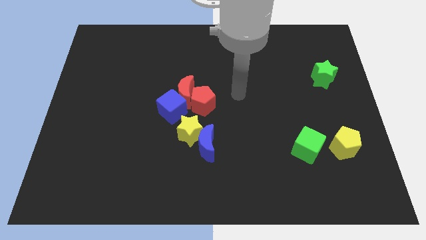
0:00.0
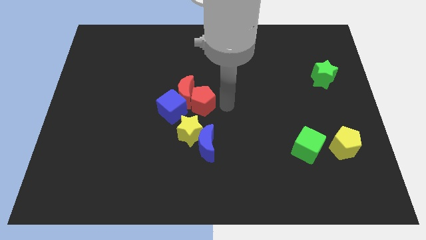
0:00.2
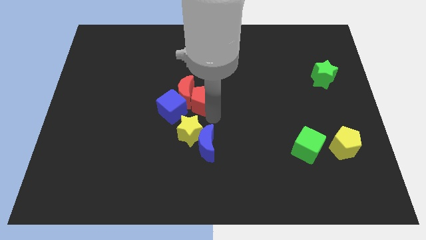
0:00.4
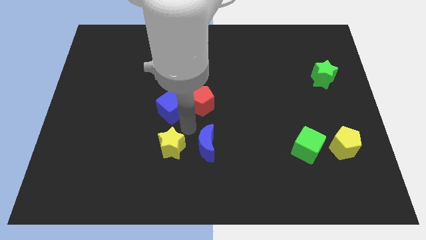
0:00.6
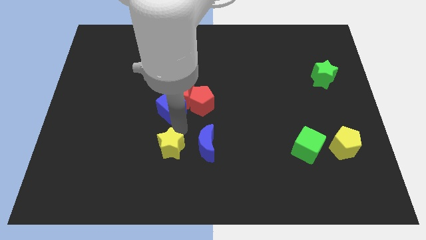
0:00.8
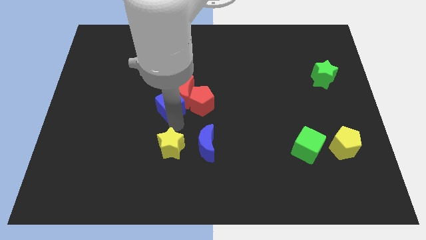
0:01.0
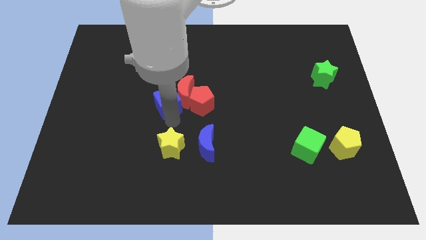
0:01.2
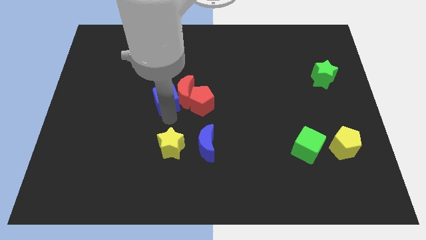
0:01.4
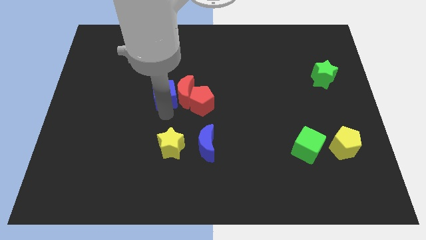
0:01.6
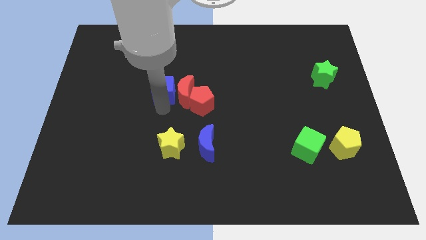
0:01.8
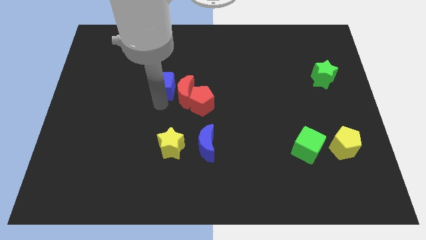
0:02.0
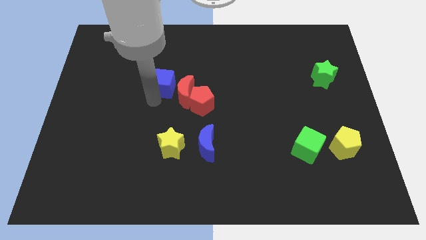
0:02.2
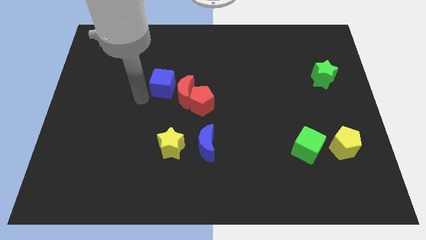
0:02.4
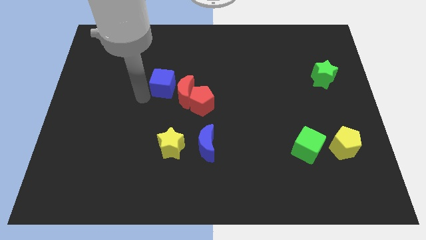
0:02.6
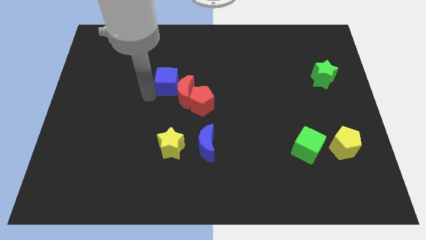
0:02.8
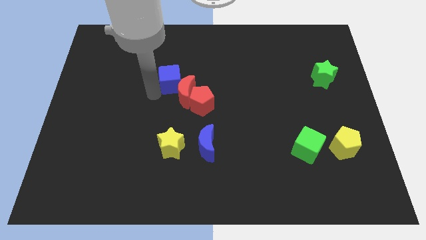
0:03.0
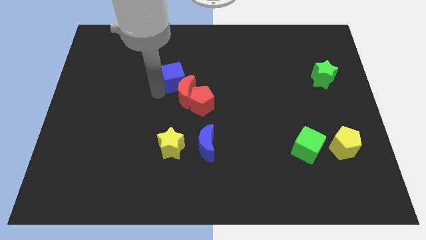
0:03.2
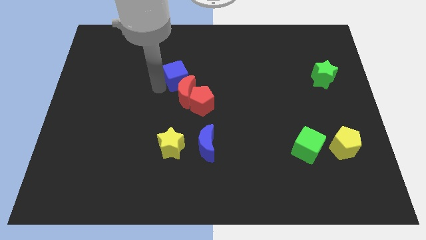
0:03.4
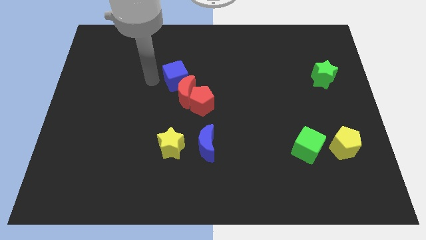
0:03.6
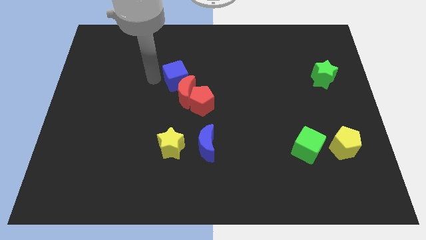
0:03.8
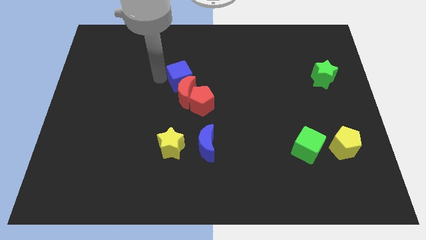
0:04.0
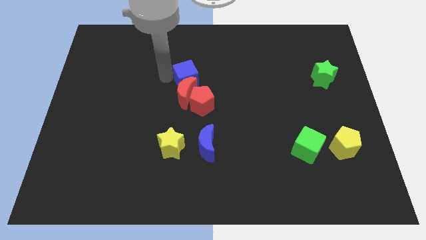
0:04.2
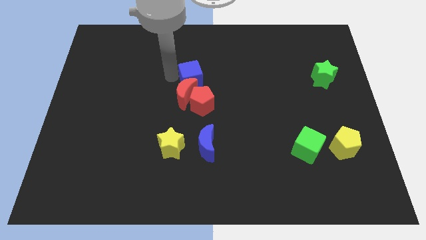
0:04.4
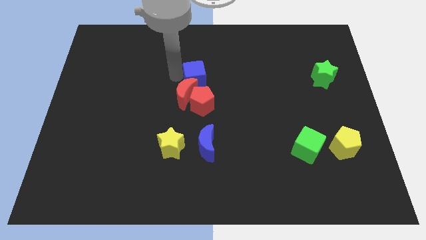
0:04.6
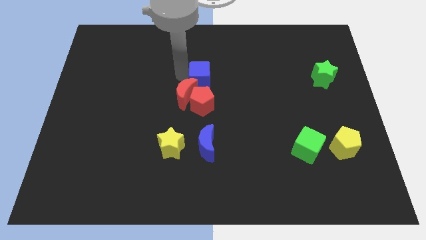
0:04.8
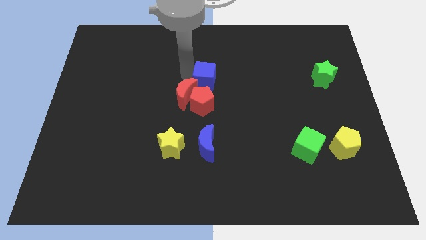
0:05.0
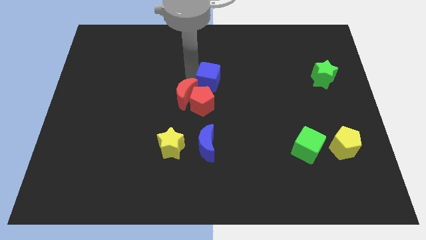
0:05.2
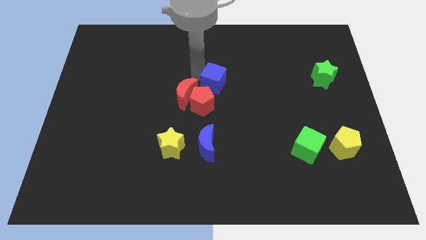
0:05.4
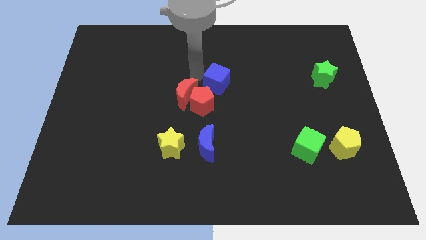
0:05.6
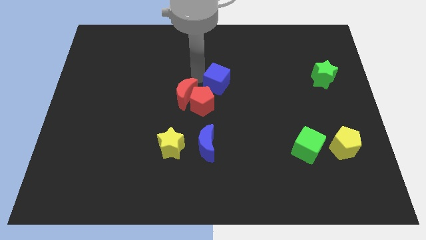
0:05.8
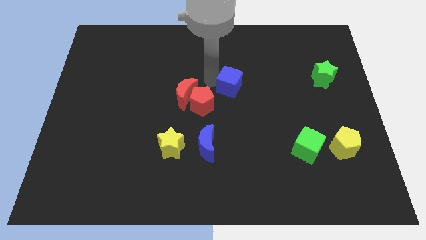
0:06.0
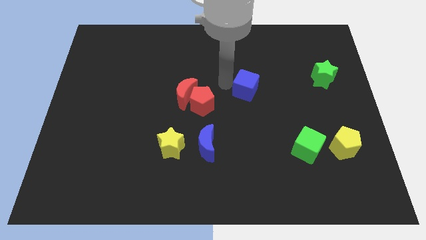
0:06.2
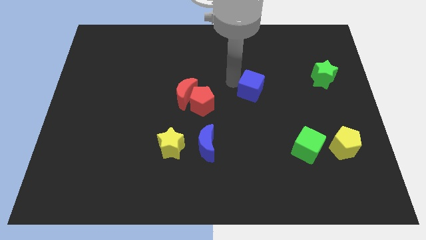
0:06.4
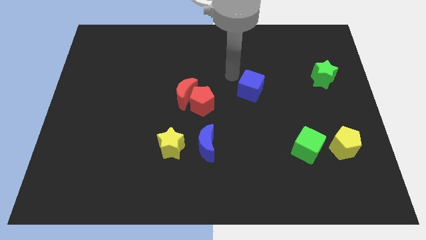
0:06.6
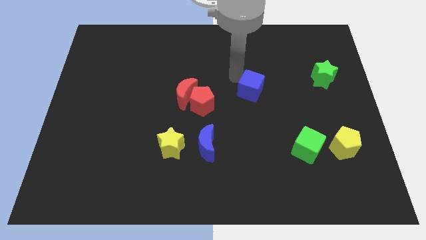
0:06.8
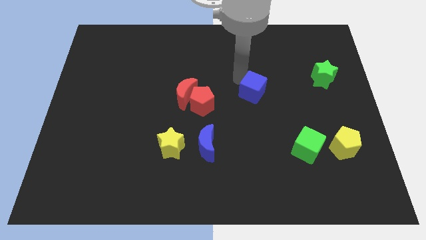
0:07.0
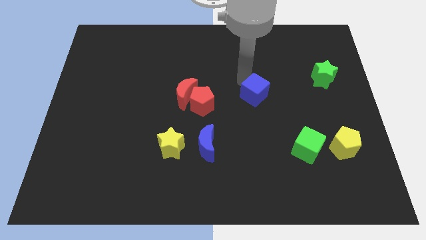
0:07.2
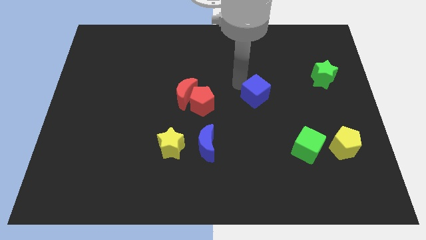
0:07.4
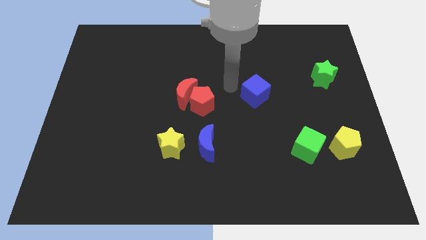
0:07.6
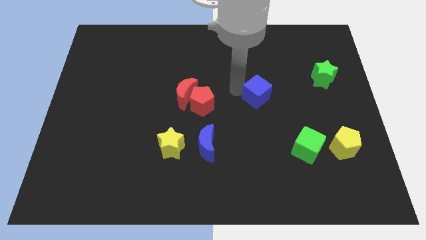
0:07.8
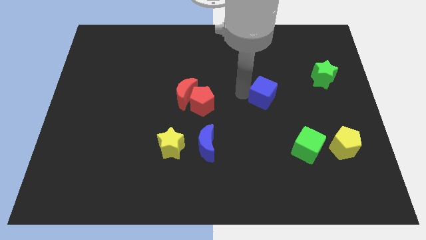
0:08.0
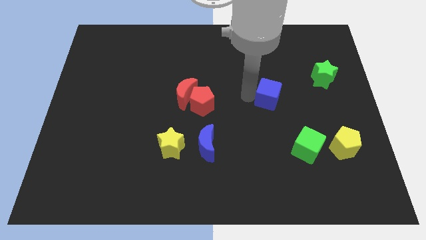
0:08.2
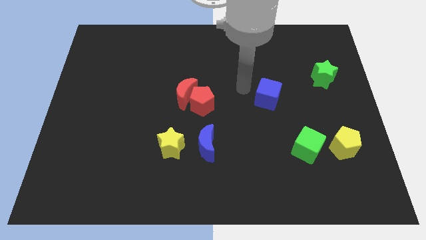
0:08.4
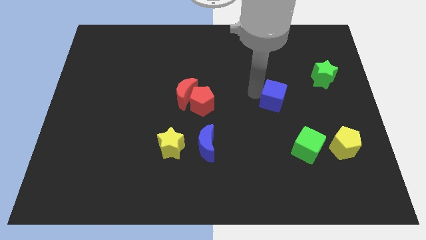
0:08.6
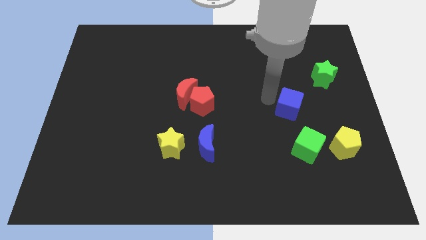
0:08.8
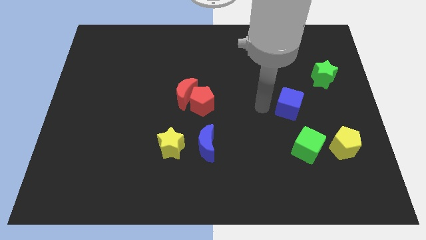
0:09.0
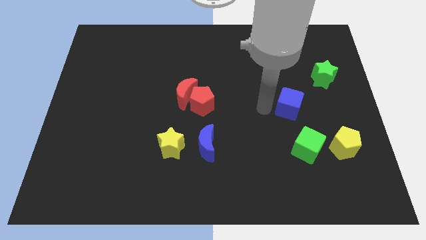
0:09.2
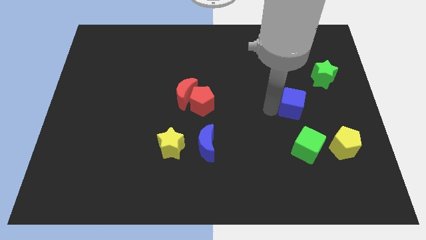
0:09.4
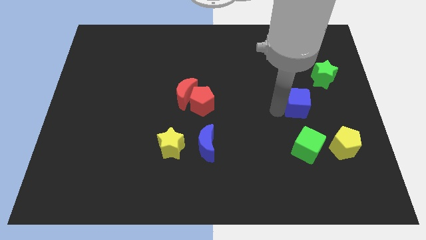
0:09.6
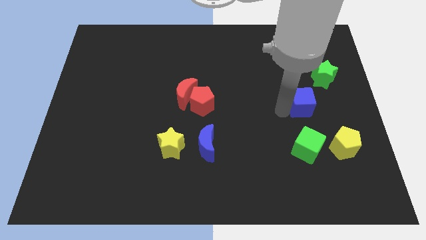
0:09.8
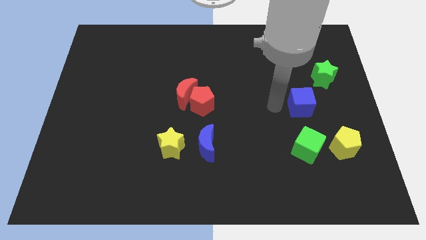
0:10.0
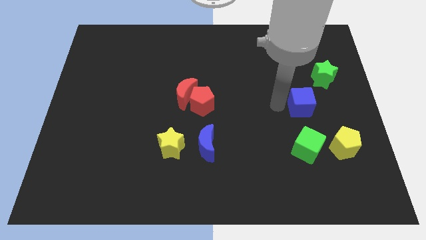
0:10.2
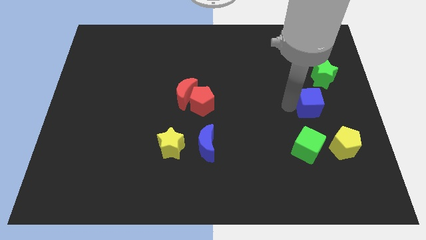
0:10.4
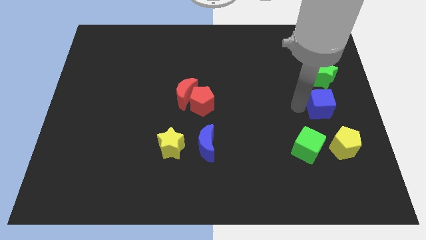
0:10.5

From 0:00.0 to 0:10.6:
slide the blue cube to the right side of the board

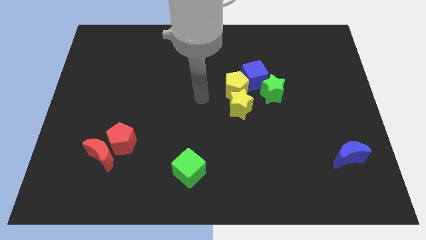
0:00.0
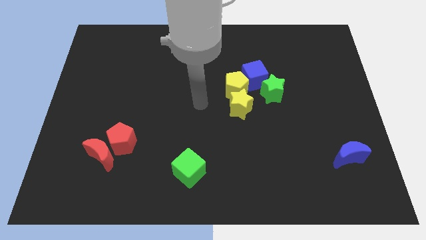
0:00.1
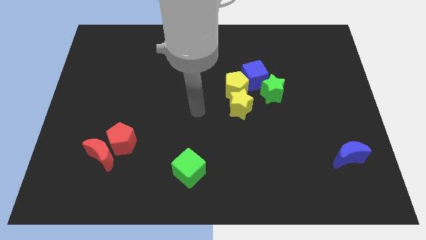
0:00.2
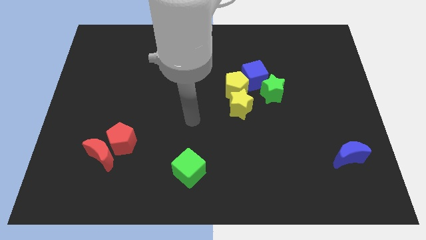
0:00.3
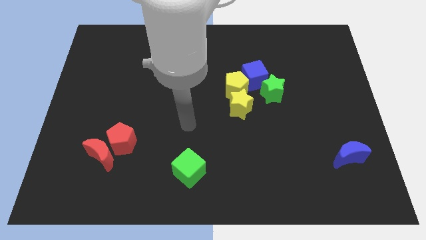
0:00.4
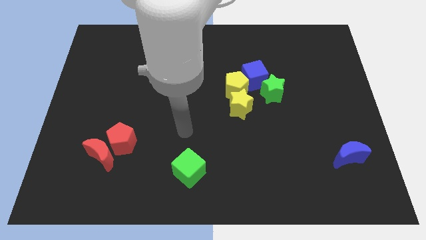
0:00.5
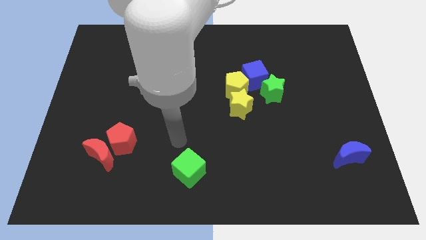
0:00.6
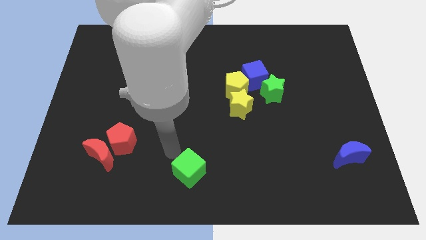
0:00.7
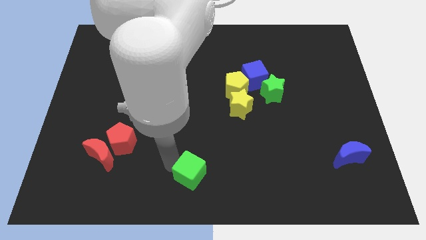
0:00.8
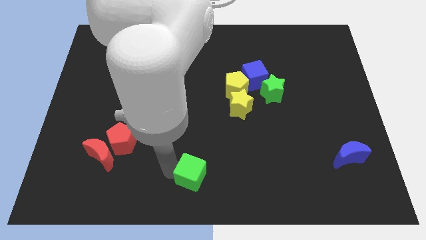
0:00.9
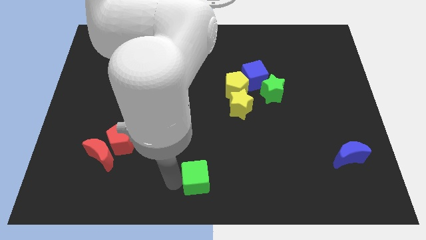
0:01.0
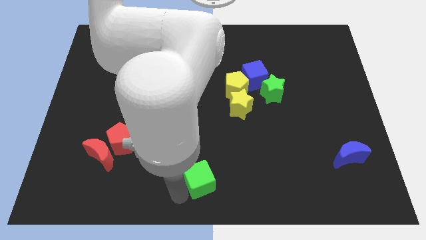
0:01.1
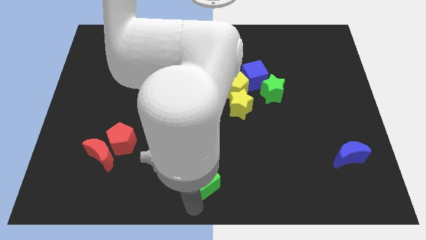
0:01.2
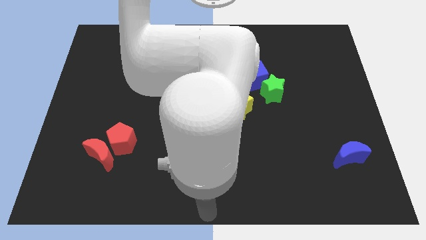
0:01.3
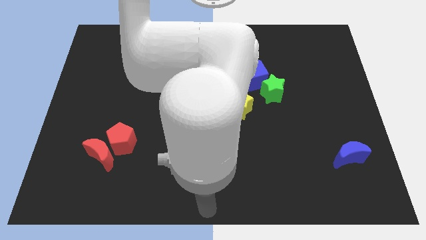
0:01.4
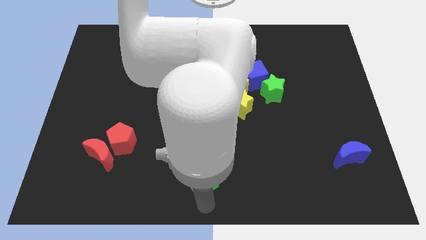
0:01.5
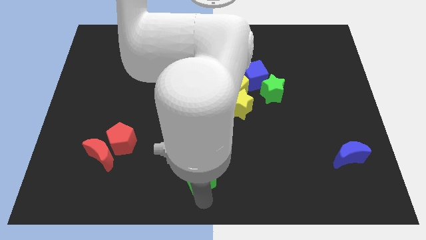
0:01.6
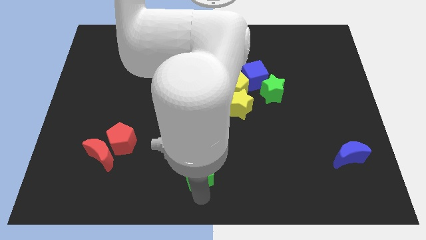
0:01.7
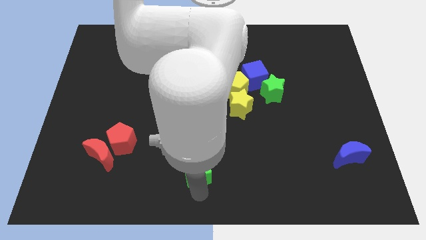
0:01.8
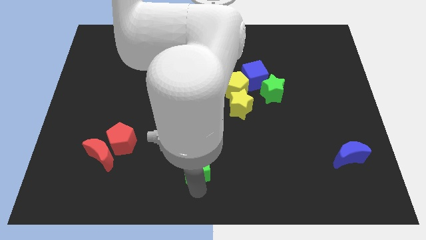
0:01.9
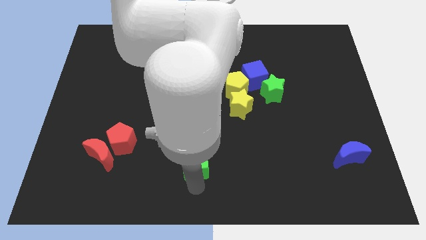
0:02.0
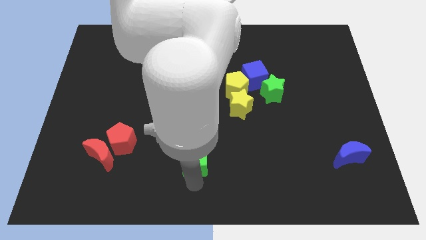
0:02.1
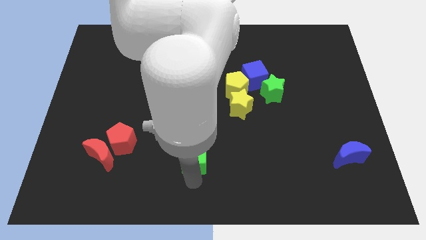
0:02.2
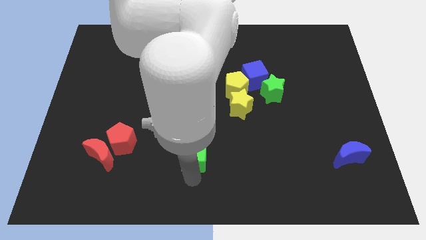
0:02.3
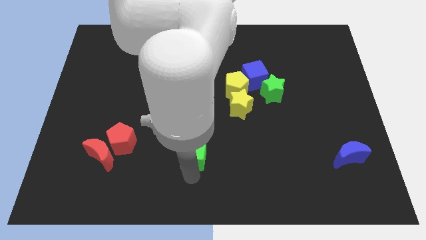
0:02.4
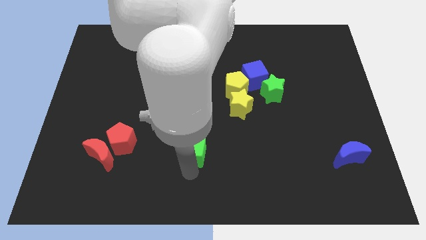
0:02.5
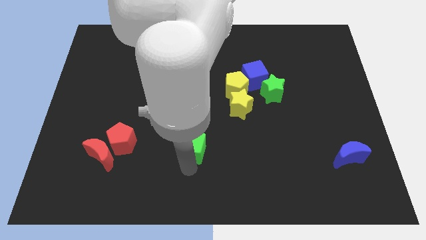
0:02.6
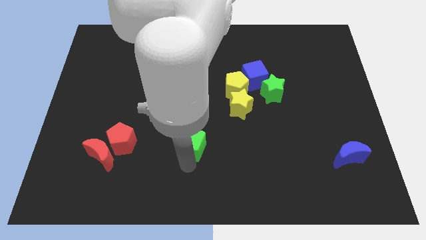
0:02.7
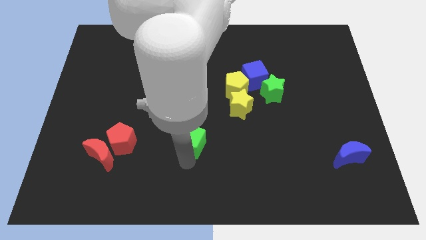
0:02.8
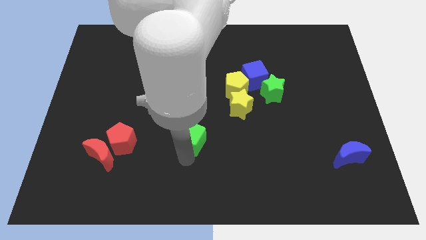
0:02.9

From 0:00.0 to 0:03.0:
slide the green cube to the center of the board
